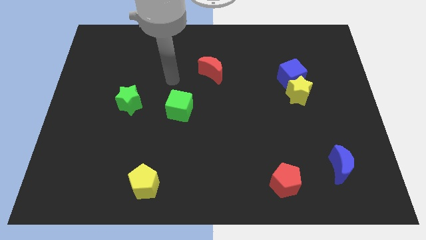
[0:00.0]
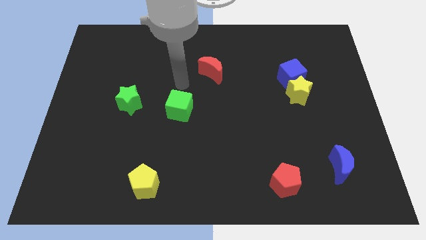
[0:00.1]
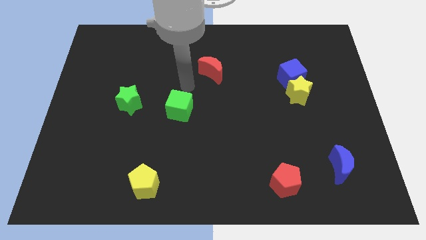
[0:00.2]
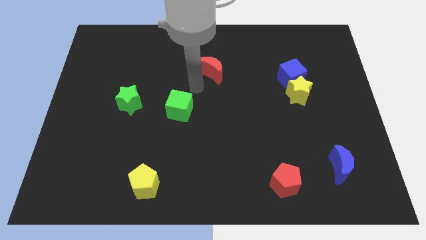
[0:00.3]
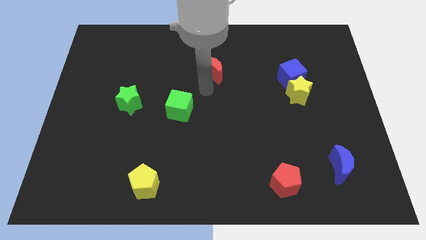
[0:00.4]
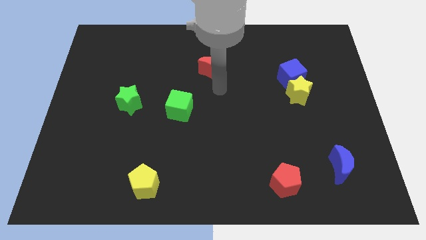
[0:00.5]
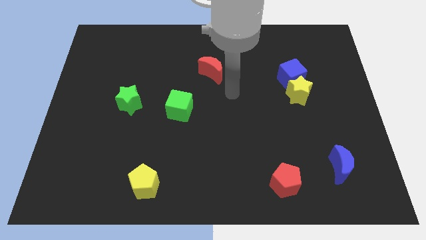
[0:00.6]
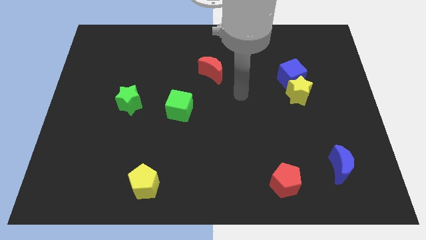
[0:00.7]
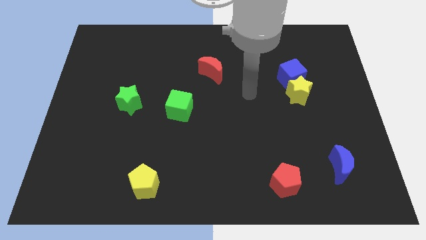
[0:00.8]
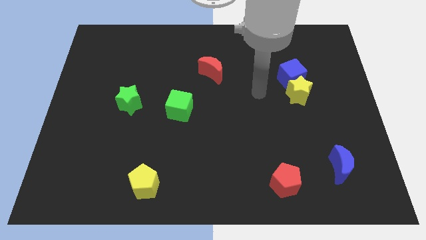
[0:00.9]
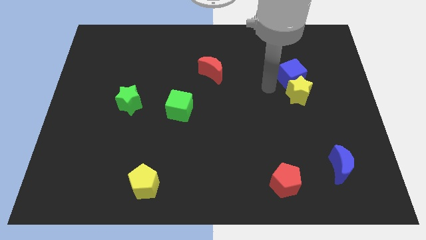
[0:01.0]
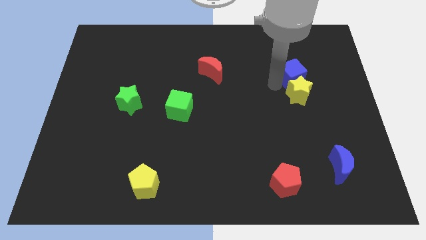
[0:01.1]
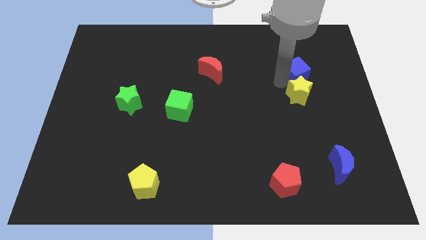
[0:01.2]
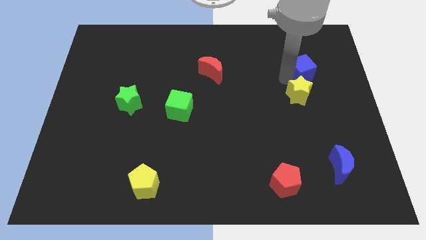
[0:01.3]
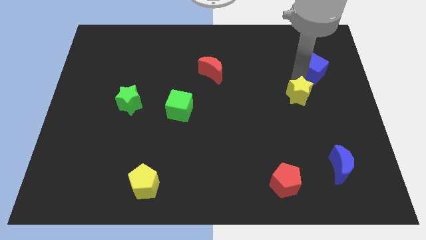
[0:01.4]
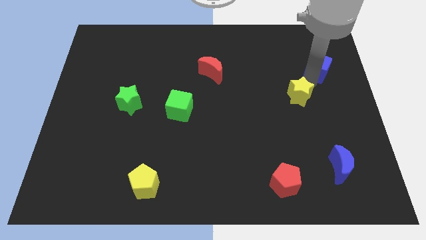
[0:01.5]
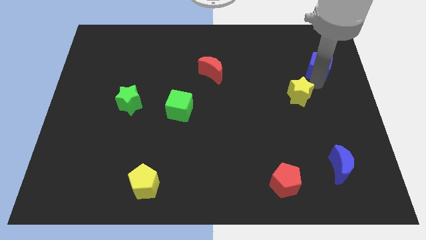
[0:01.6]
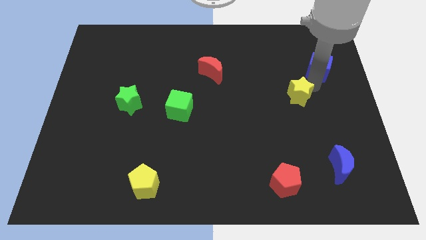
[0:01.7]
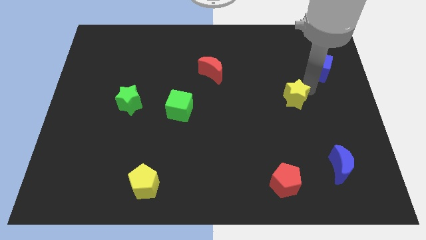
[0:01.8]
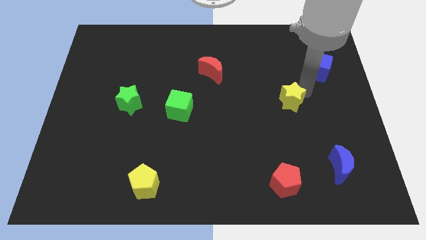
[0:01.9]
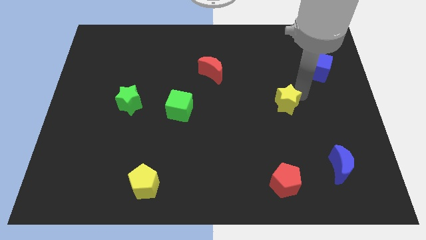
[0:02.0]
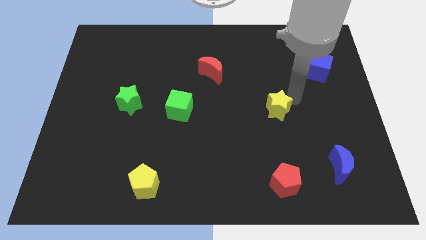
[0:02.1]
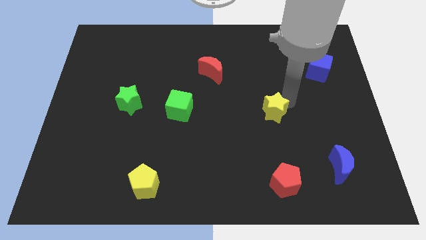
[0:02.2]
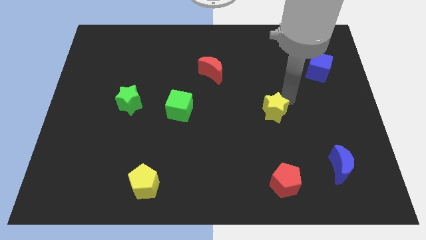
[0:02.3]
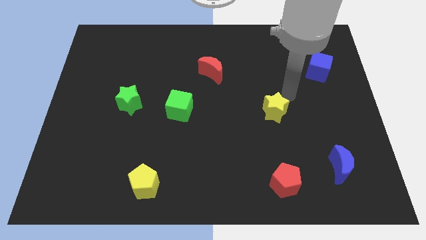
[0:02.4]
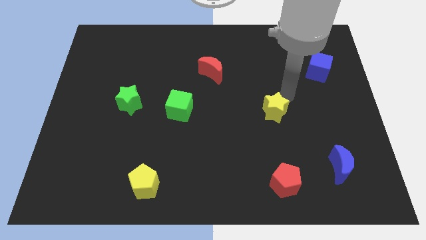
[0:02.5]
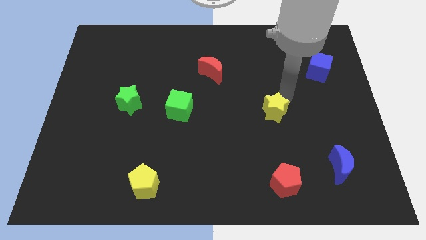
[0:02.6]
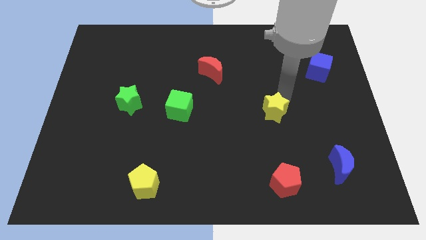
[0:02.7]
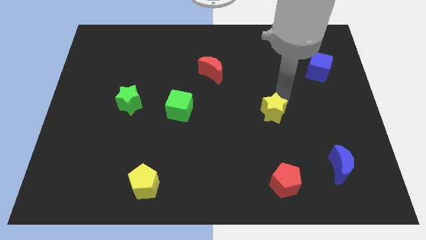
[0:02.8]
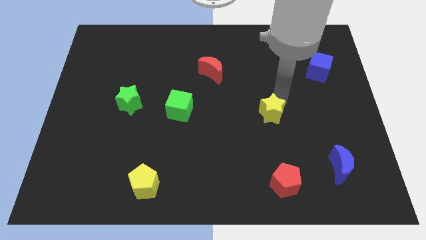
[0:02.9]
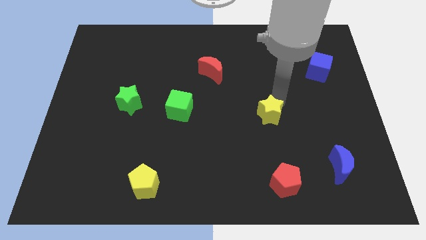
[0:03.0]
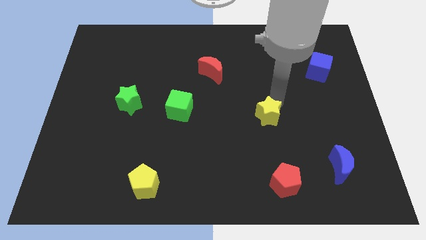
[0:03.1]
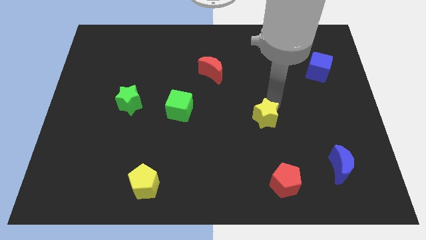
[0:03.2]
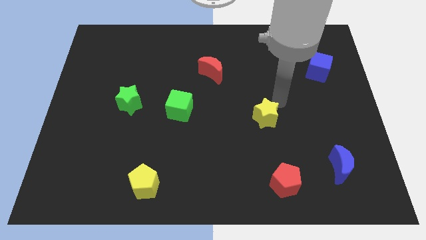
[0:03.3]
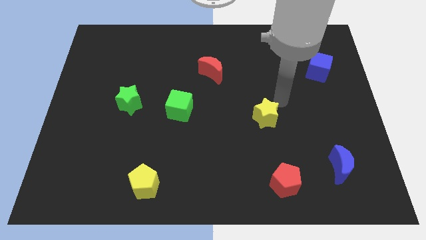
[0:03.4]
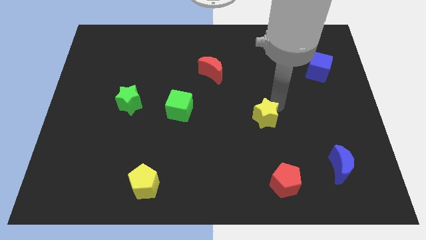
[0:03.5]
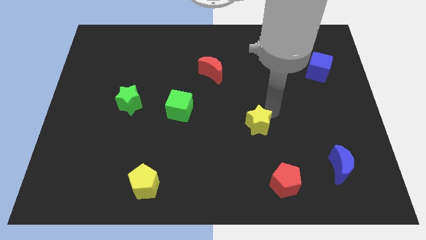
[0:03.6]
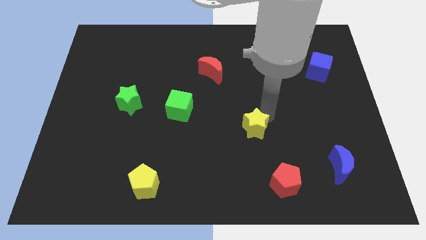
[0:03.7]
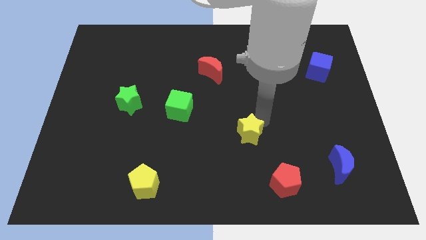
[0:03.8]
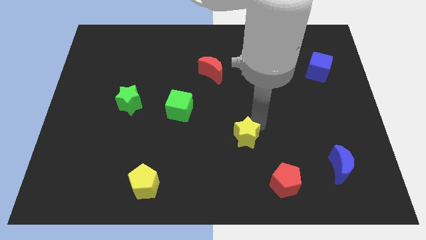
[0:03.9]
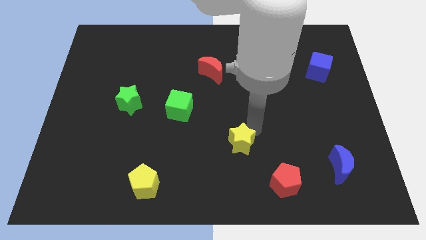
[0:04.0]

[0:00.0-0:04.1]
push the yellow star downwards and to the left diagonally

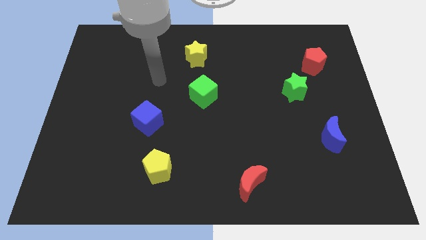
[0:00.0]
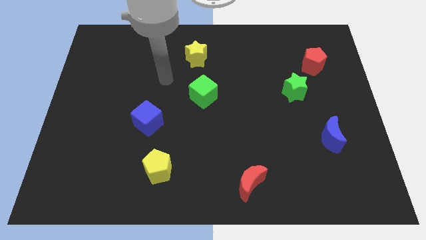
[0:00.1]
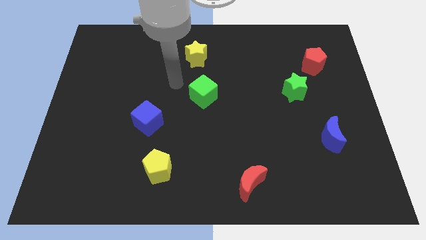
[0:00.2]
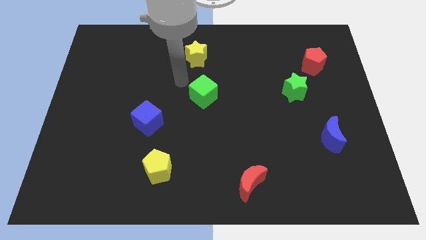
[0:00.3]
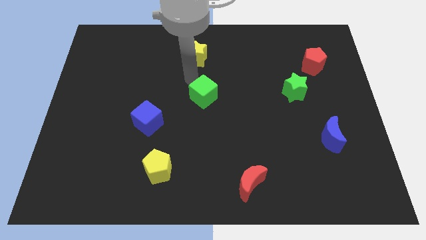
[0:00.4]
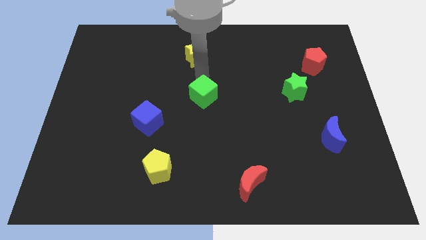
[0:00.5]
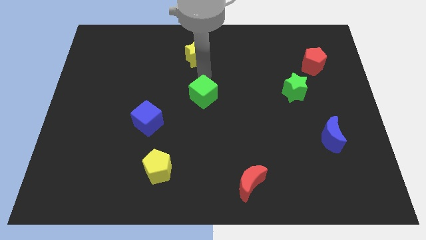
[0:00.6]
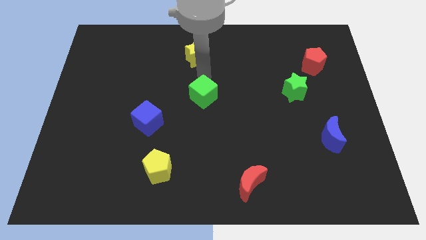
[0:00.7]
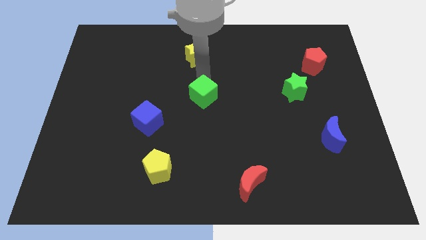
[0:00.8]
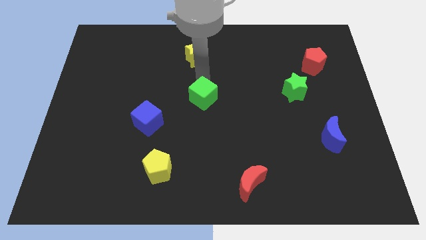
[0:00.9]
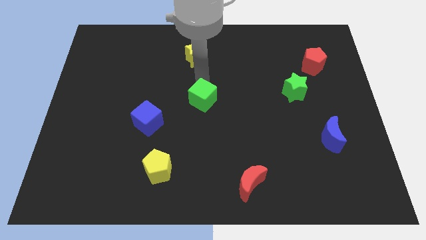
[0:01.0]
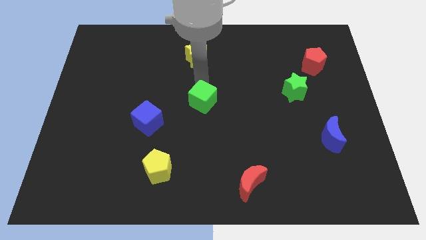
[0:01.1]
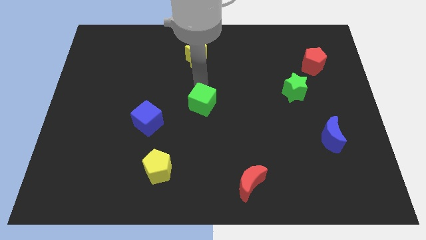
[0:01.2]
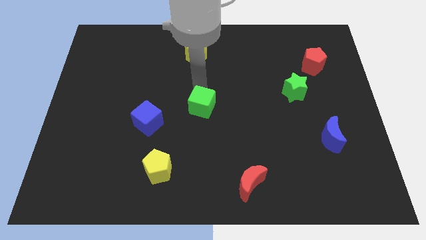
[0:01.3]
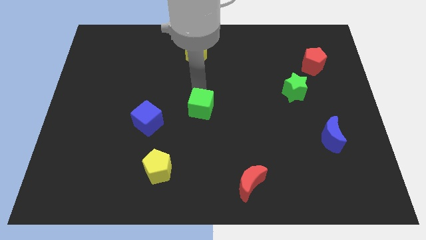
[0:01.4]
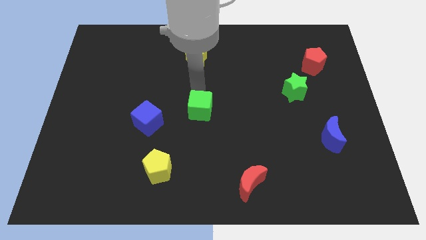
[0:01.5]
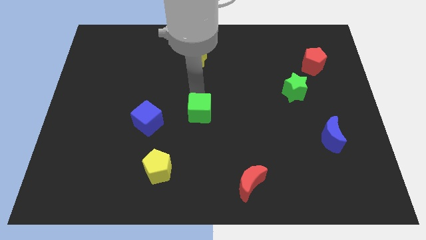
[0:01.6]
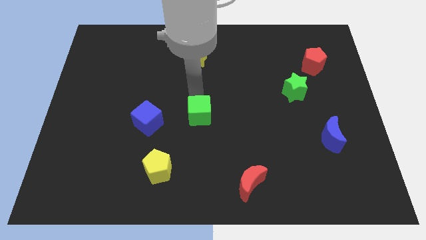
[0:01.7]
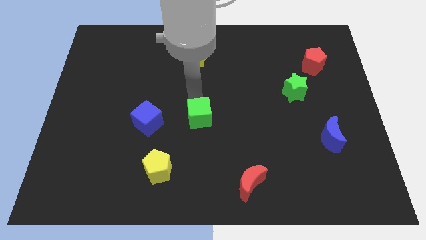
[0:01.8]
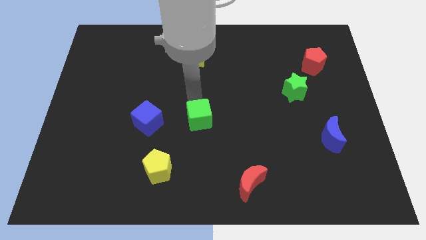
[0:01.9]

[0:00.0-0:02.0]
slightly slide the green cube downwards

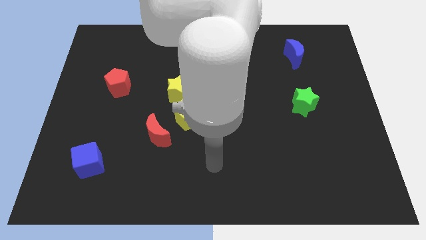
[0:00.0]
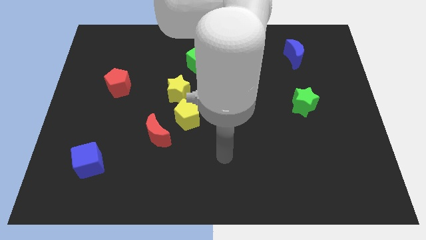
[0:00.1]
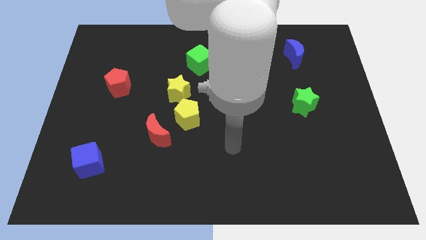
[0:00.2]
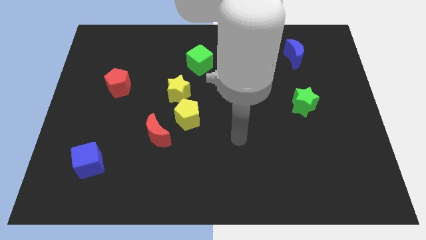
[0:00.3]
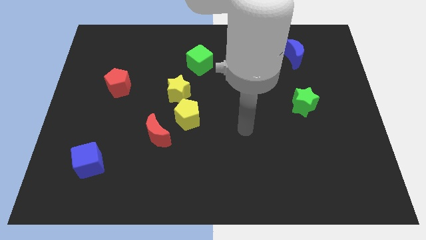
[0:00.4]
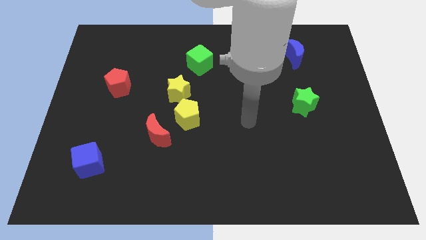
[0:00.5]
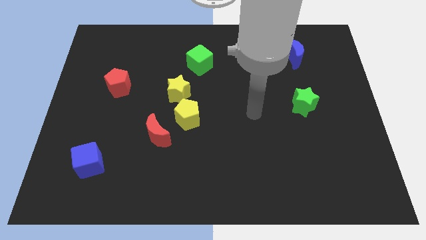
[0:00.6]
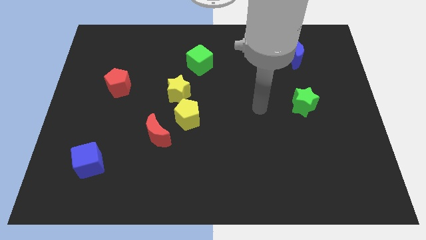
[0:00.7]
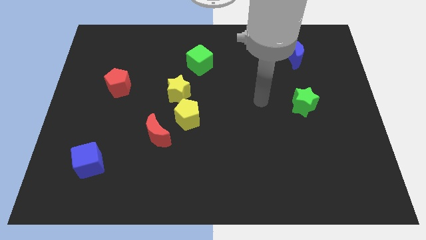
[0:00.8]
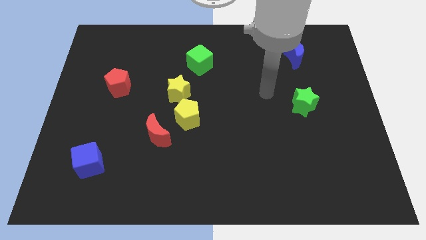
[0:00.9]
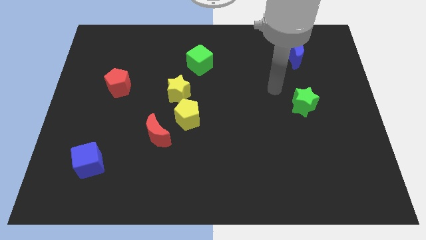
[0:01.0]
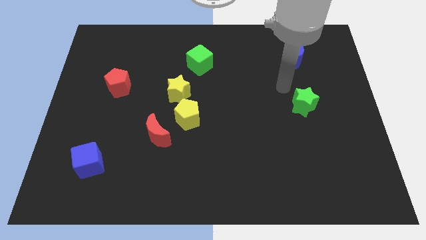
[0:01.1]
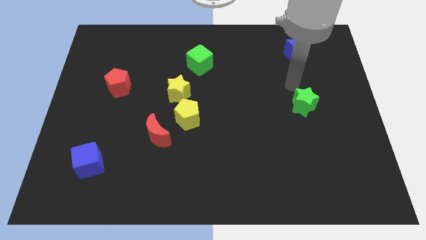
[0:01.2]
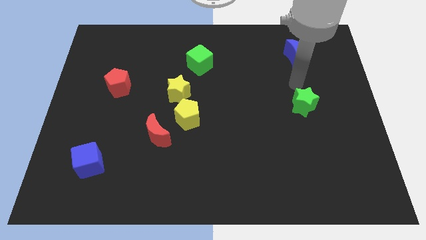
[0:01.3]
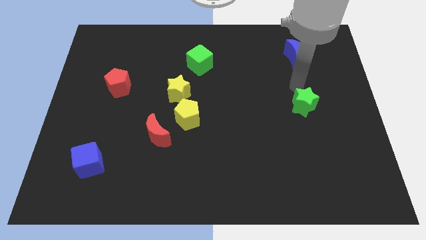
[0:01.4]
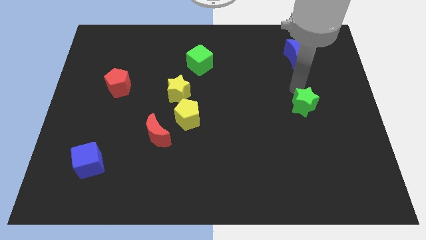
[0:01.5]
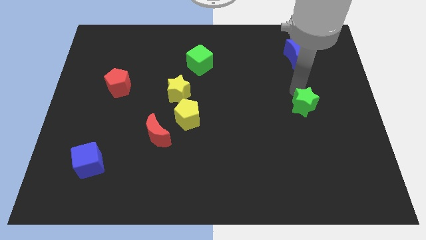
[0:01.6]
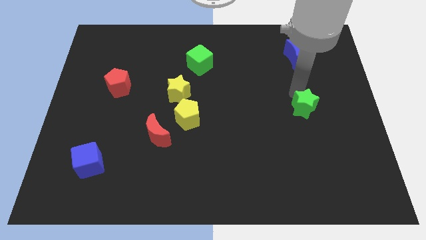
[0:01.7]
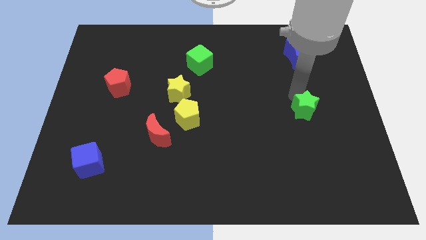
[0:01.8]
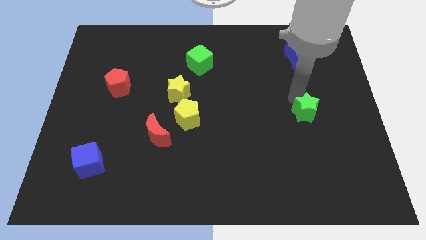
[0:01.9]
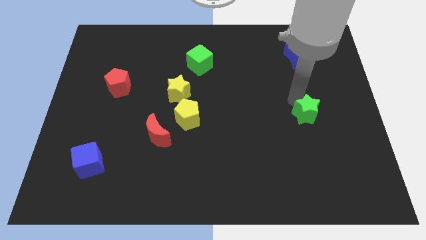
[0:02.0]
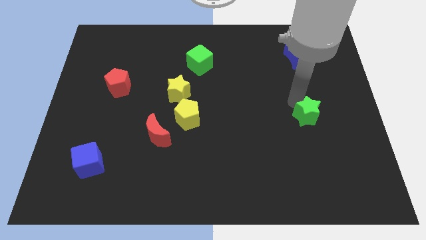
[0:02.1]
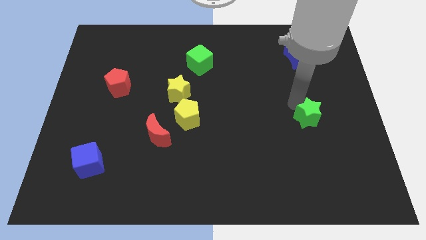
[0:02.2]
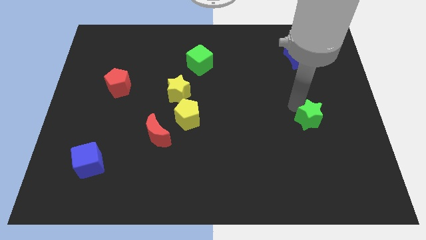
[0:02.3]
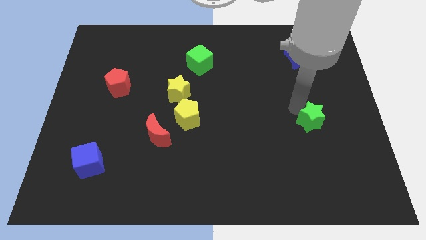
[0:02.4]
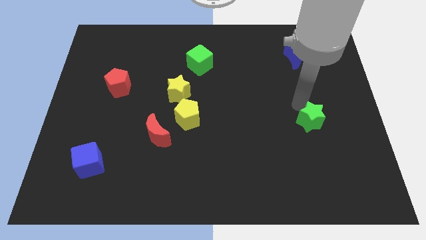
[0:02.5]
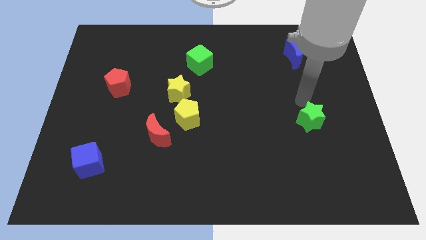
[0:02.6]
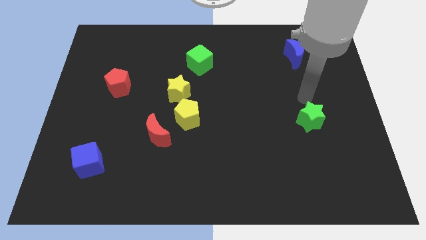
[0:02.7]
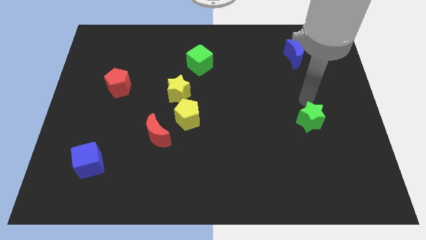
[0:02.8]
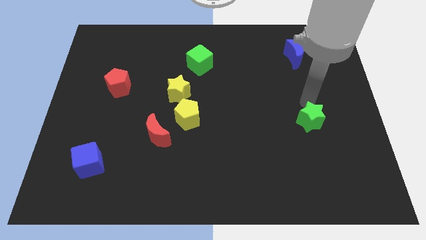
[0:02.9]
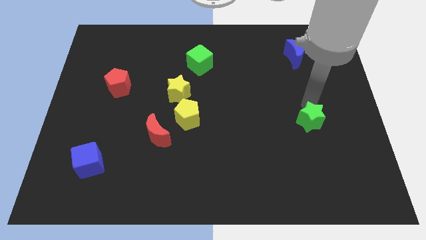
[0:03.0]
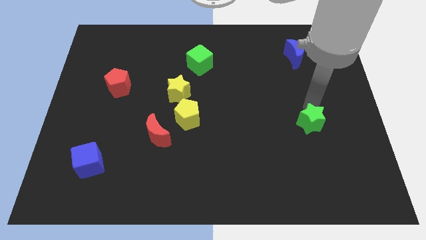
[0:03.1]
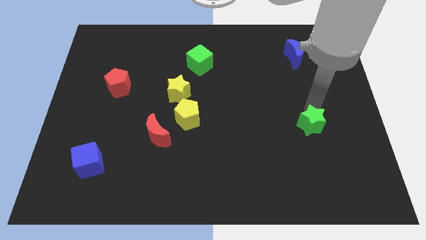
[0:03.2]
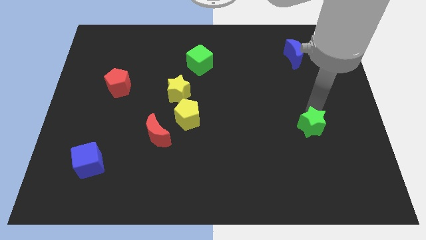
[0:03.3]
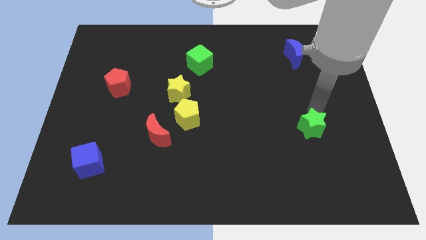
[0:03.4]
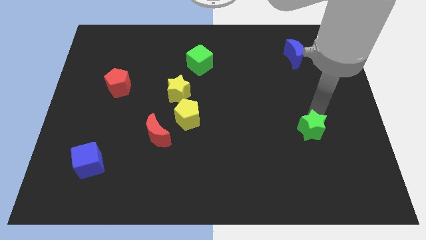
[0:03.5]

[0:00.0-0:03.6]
slightly push the green star down
